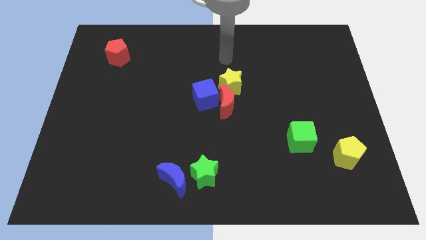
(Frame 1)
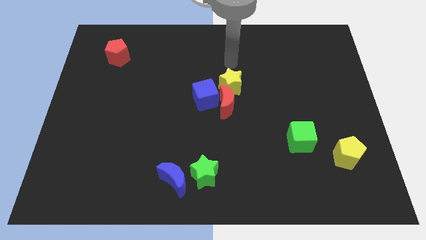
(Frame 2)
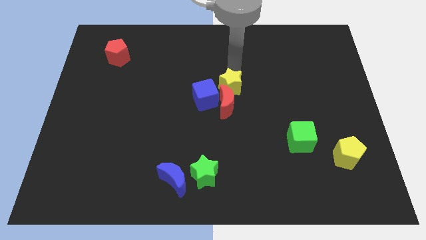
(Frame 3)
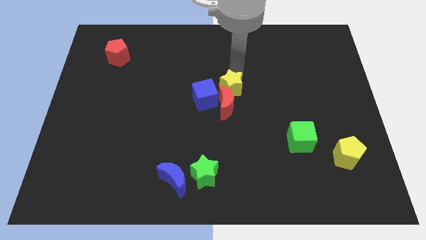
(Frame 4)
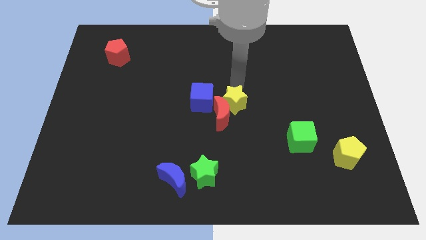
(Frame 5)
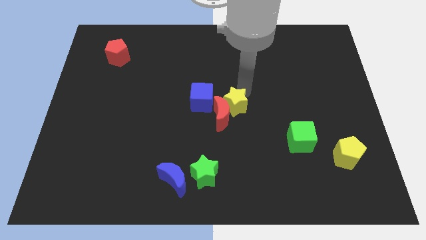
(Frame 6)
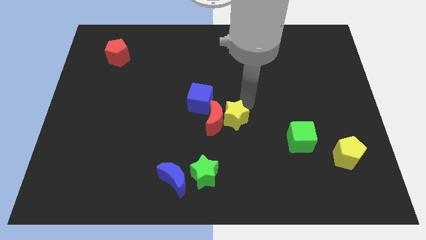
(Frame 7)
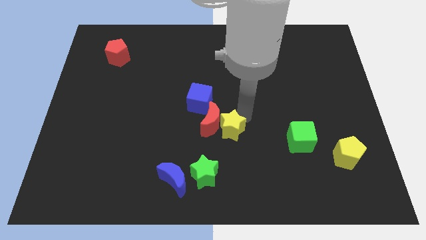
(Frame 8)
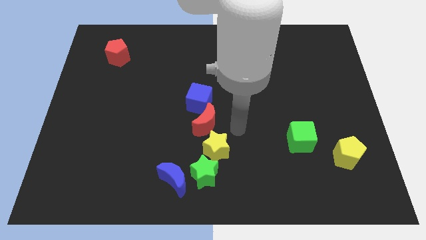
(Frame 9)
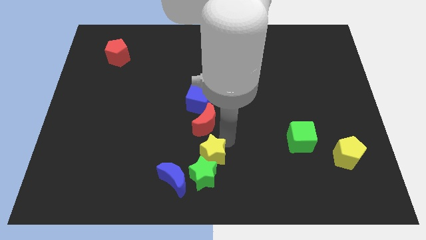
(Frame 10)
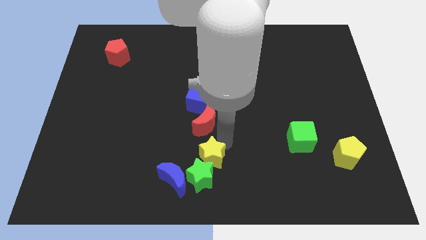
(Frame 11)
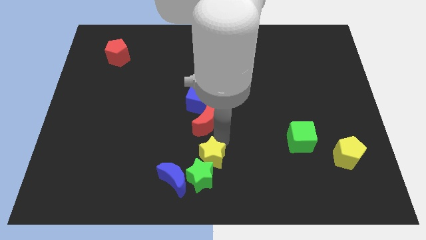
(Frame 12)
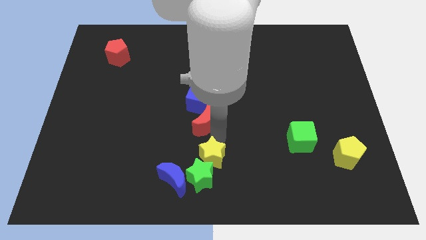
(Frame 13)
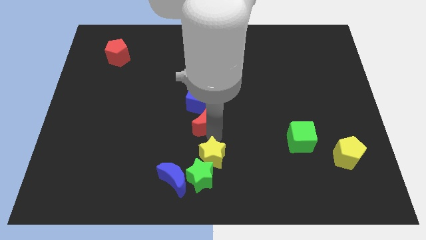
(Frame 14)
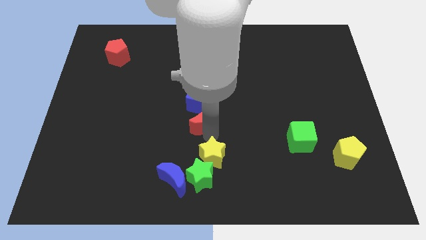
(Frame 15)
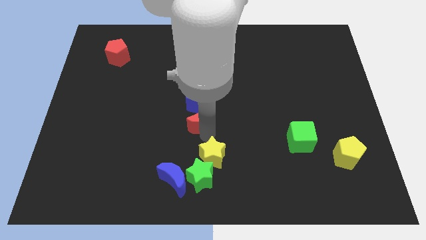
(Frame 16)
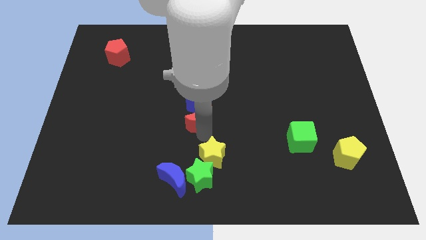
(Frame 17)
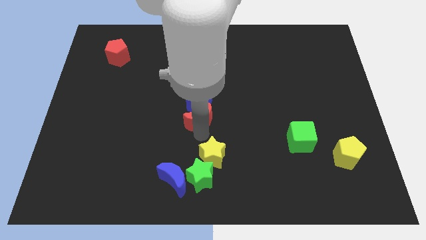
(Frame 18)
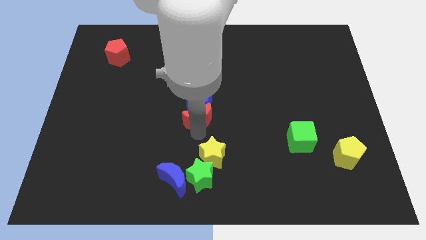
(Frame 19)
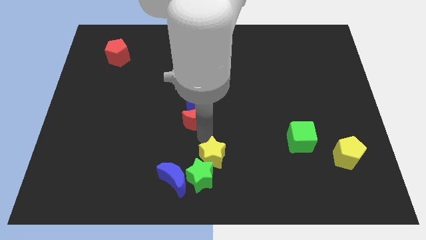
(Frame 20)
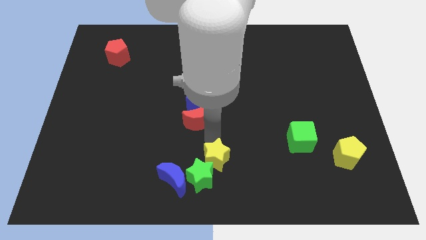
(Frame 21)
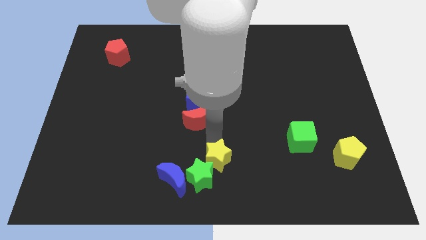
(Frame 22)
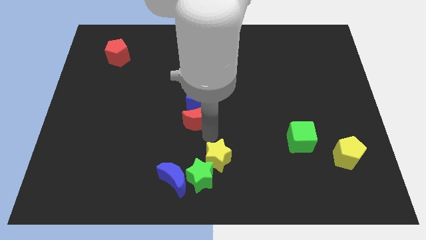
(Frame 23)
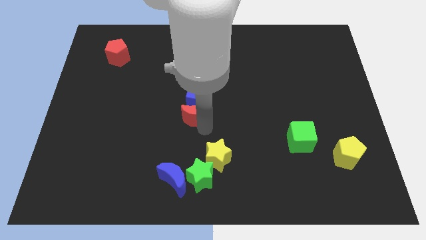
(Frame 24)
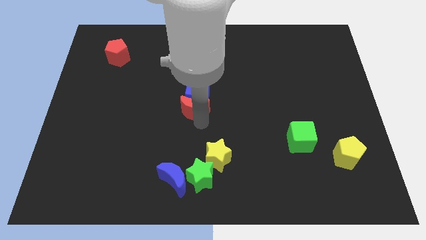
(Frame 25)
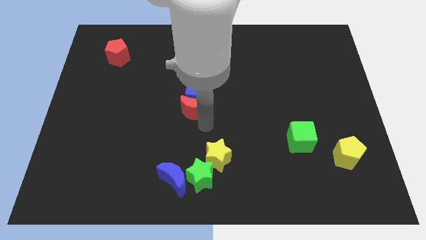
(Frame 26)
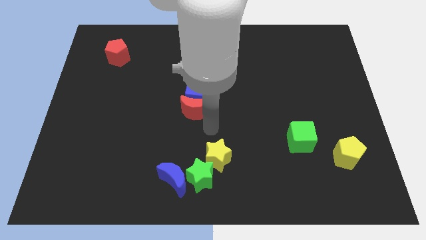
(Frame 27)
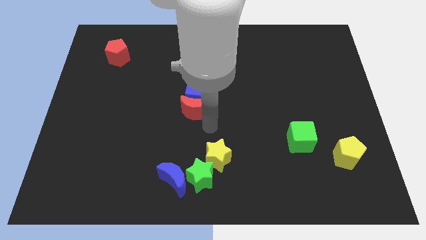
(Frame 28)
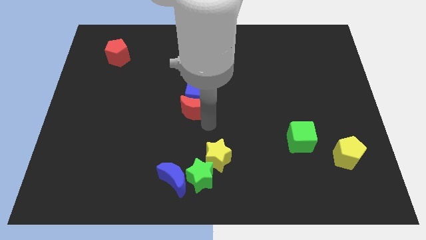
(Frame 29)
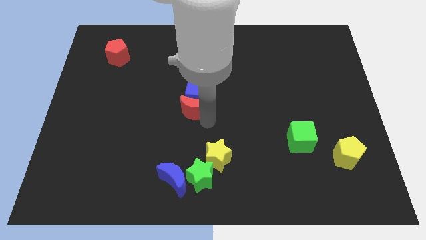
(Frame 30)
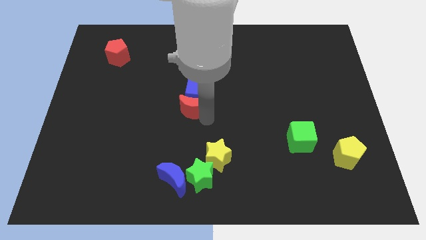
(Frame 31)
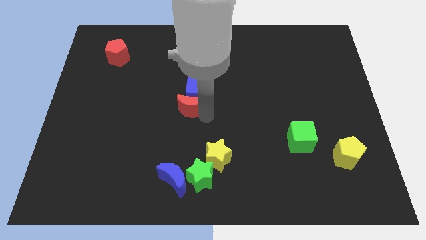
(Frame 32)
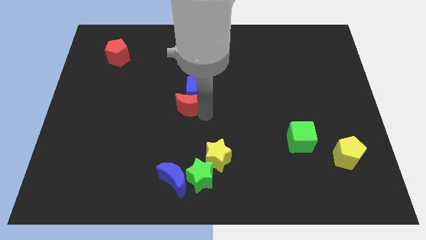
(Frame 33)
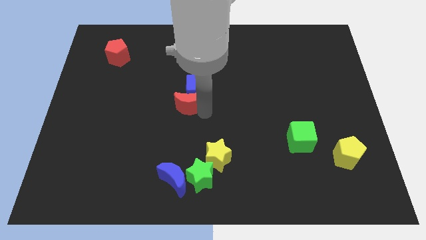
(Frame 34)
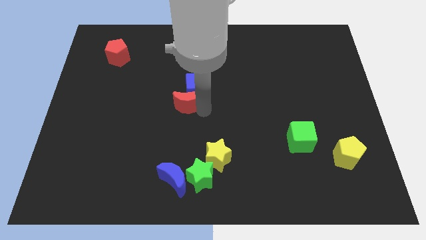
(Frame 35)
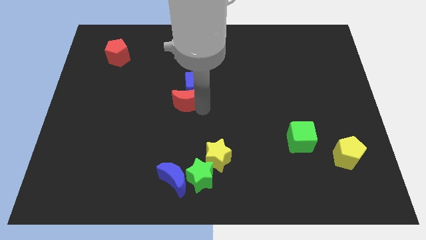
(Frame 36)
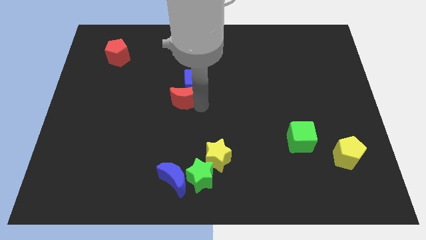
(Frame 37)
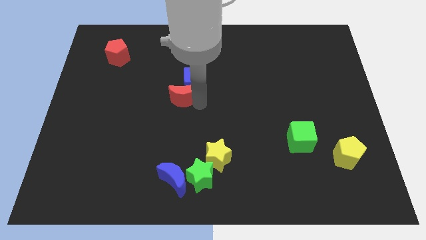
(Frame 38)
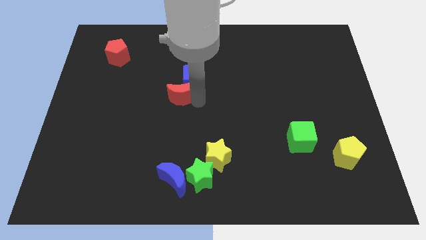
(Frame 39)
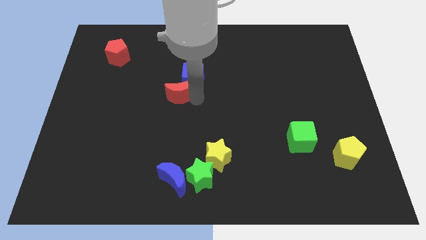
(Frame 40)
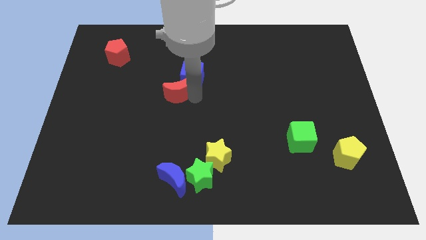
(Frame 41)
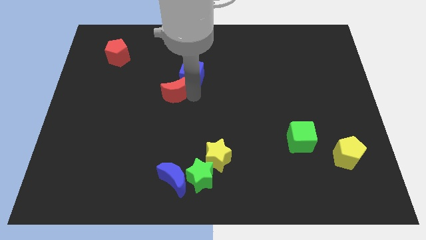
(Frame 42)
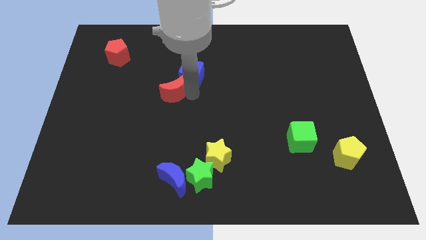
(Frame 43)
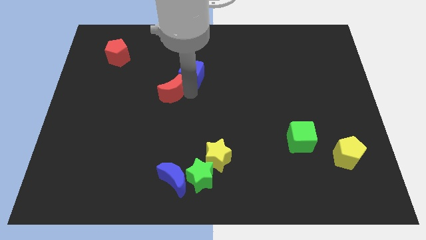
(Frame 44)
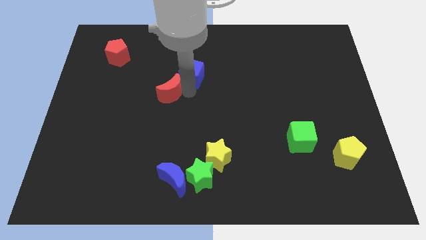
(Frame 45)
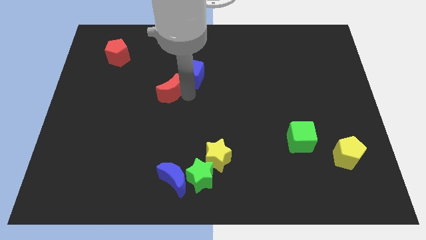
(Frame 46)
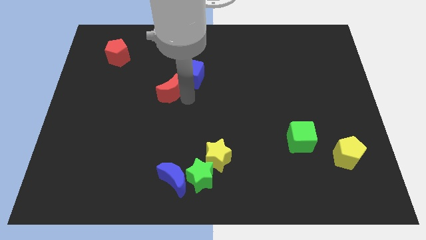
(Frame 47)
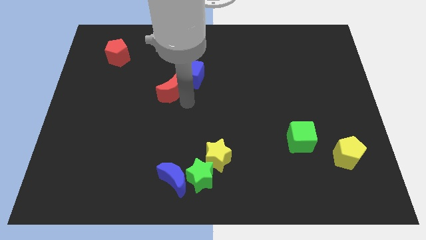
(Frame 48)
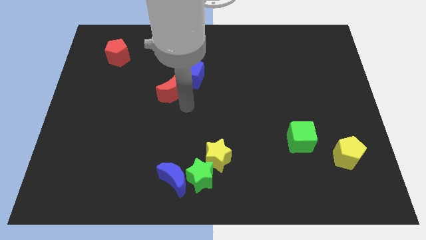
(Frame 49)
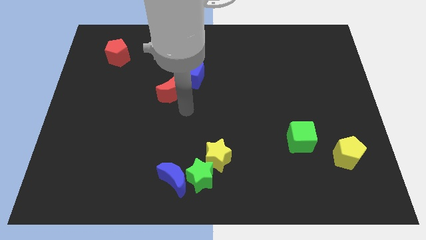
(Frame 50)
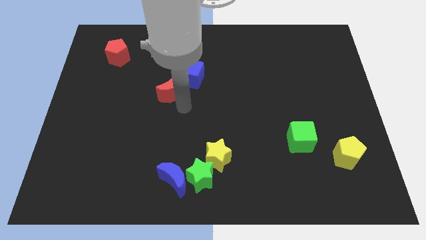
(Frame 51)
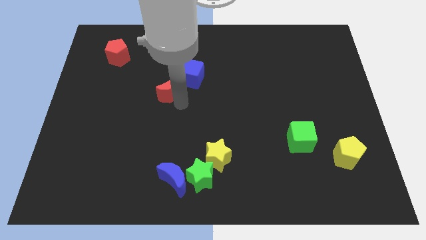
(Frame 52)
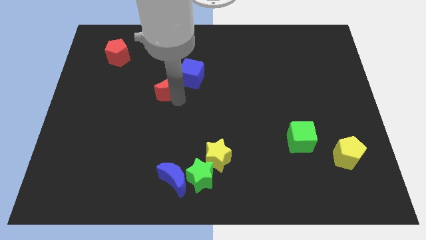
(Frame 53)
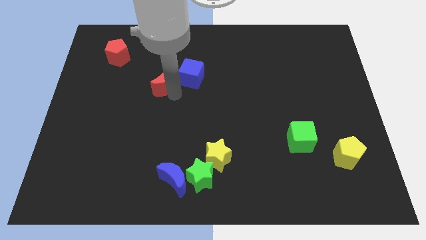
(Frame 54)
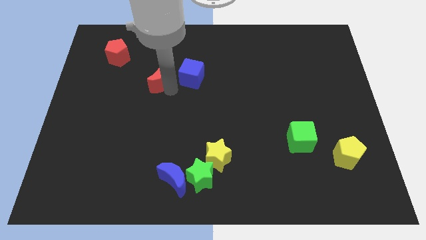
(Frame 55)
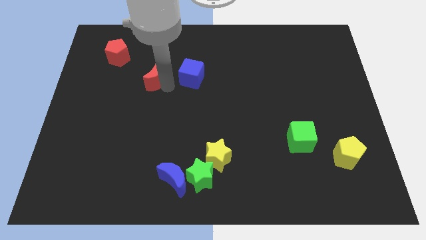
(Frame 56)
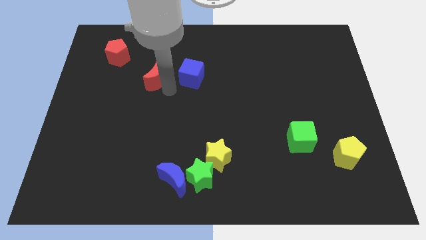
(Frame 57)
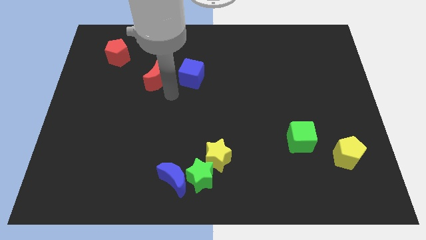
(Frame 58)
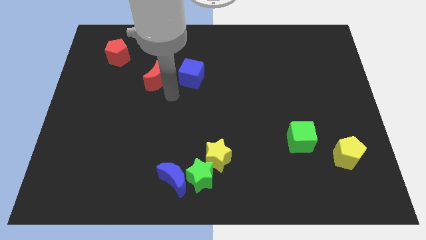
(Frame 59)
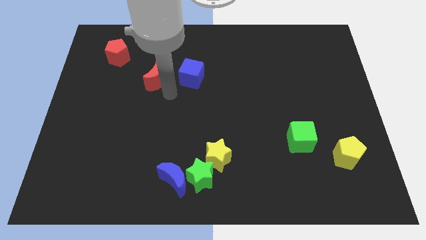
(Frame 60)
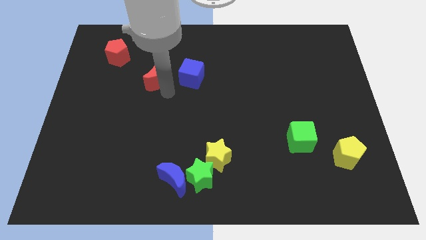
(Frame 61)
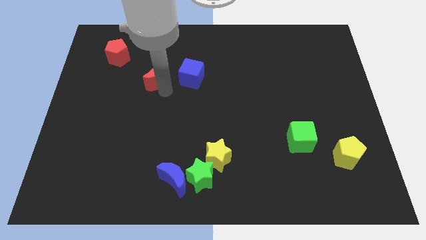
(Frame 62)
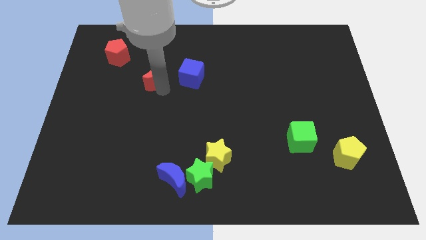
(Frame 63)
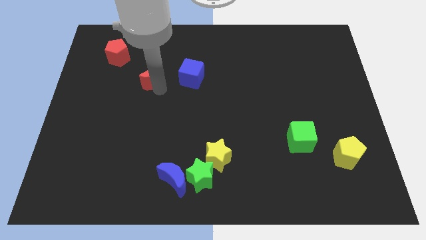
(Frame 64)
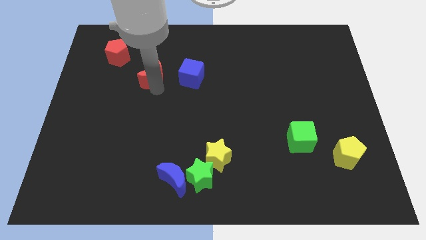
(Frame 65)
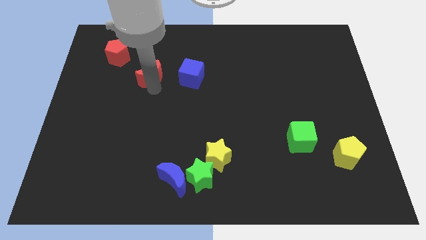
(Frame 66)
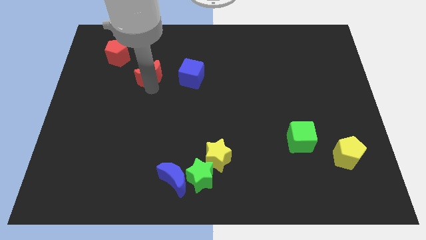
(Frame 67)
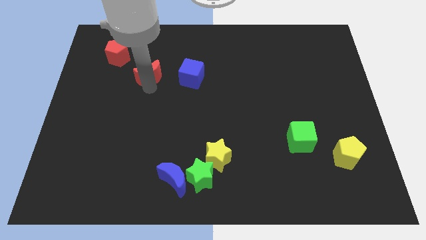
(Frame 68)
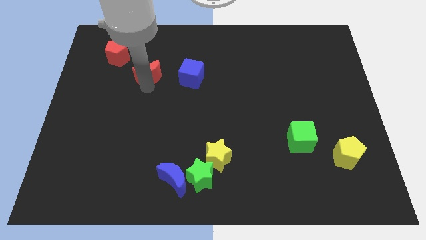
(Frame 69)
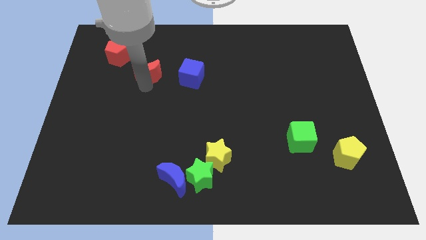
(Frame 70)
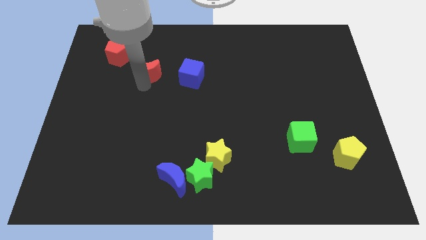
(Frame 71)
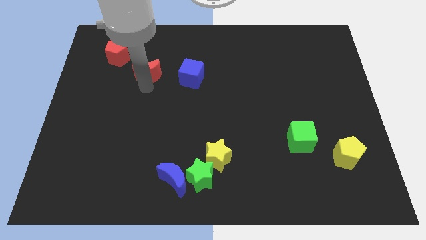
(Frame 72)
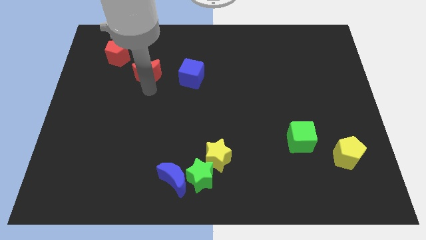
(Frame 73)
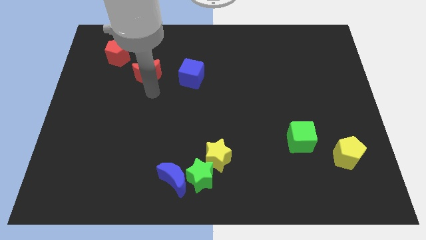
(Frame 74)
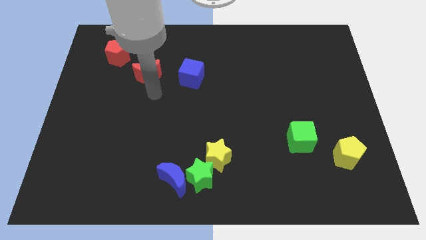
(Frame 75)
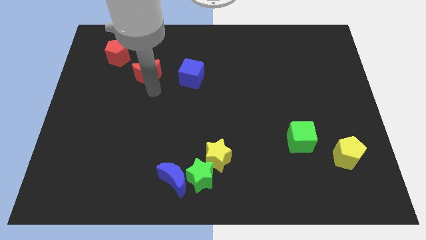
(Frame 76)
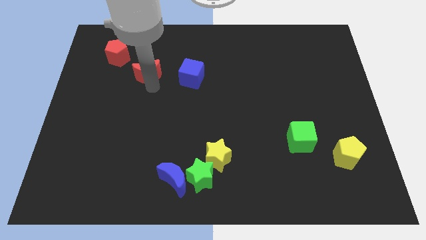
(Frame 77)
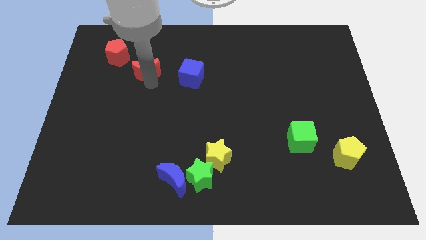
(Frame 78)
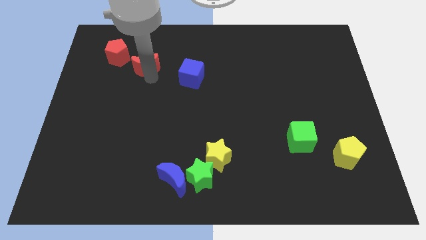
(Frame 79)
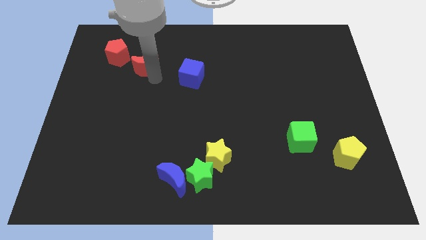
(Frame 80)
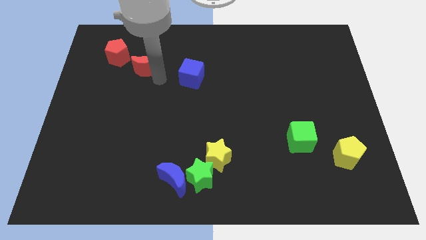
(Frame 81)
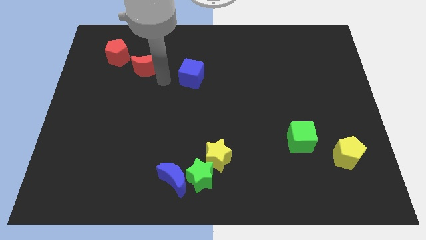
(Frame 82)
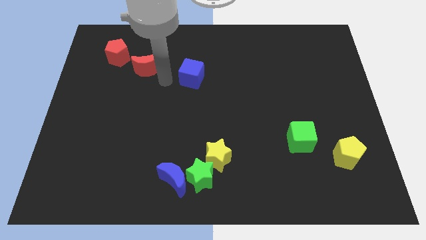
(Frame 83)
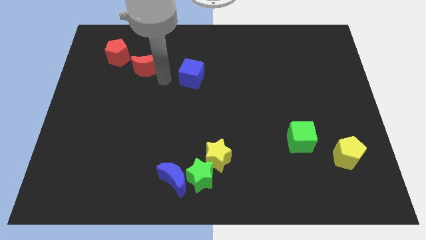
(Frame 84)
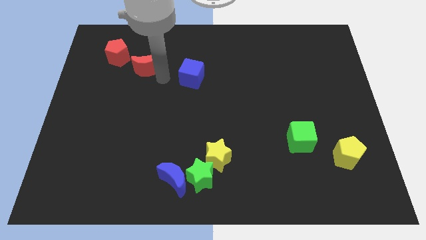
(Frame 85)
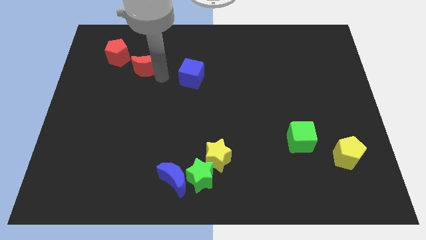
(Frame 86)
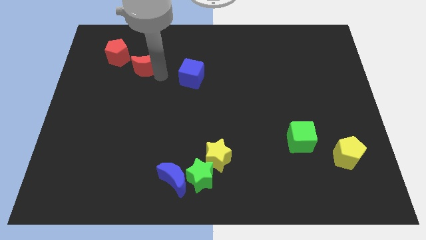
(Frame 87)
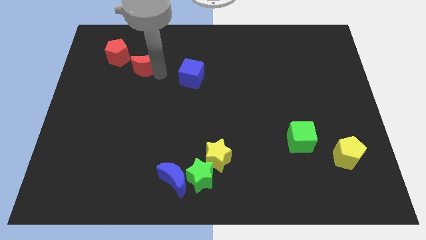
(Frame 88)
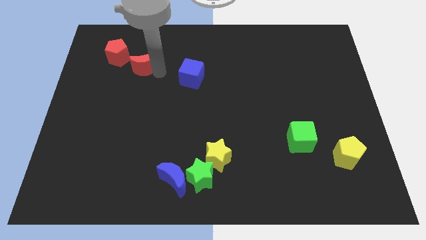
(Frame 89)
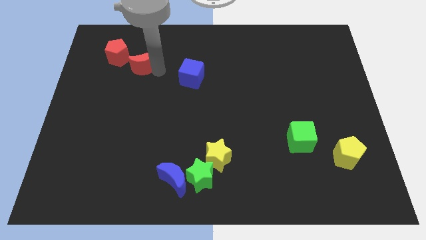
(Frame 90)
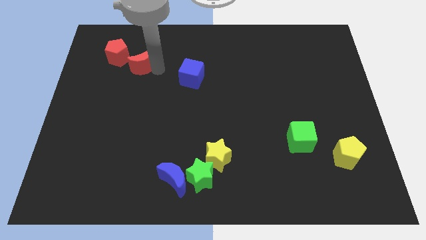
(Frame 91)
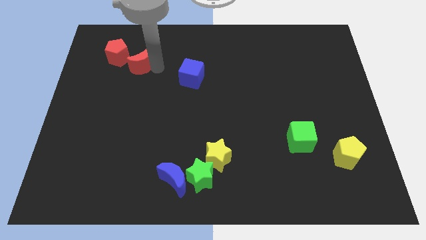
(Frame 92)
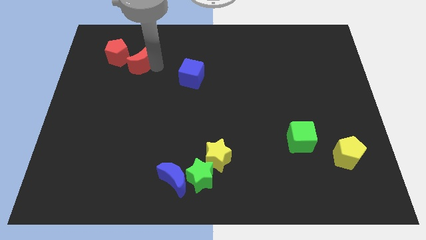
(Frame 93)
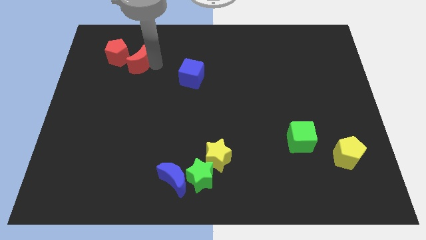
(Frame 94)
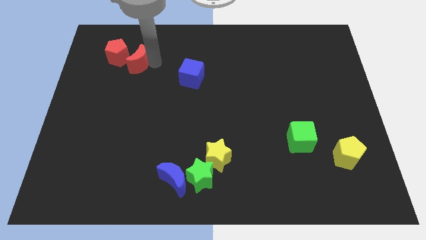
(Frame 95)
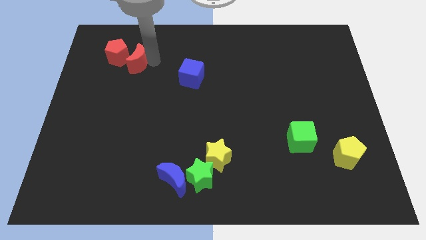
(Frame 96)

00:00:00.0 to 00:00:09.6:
move the red moon to the red pentagon
